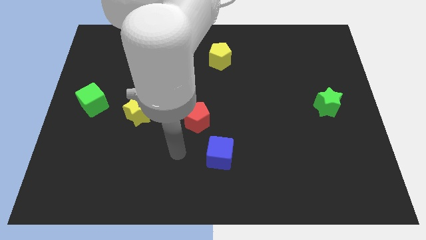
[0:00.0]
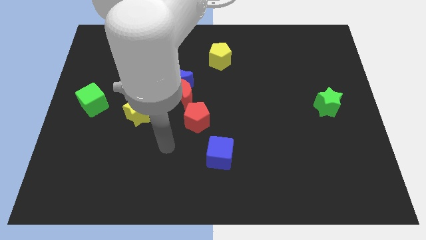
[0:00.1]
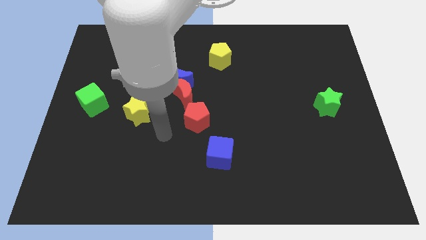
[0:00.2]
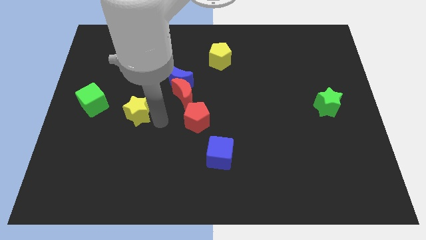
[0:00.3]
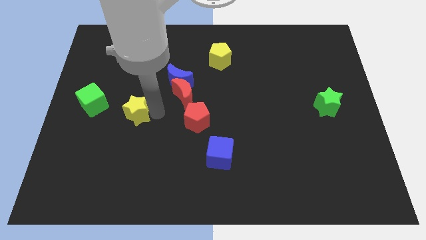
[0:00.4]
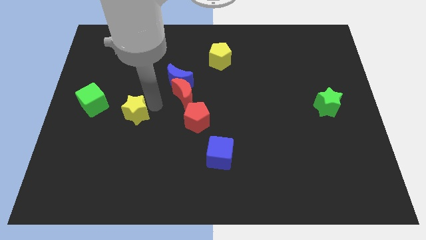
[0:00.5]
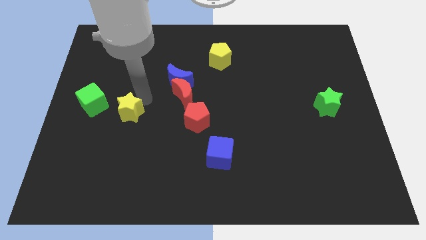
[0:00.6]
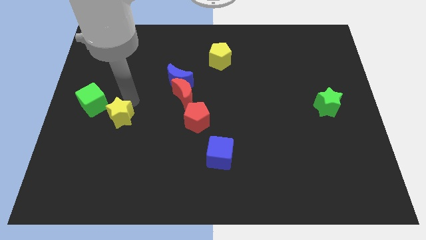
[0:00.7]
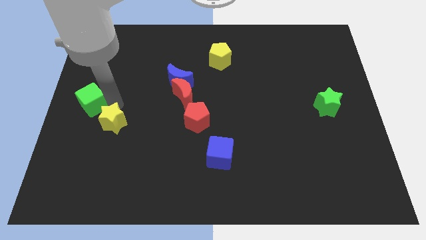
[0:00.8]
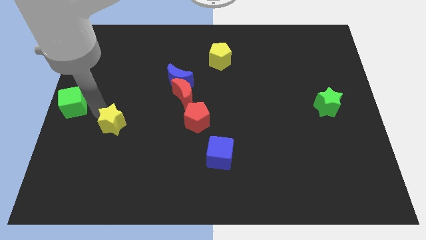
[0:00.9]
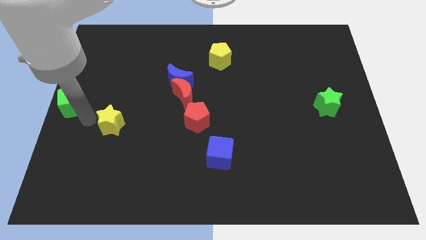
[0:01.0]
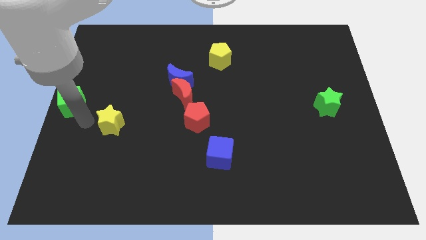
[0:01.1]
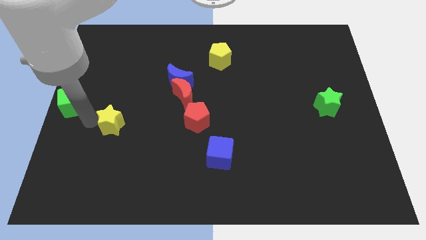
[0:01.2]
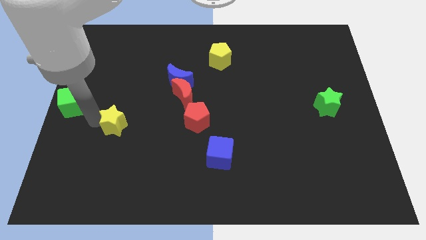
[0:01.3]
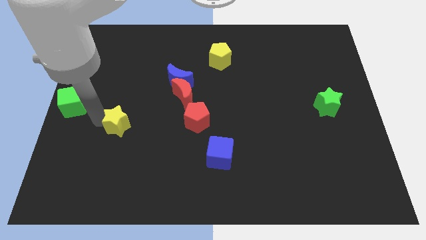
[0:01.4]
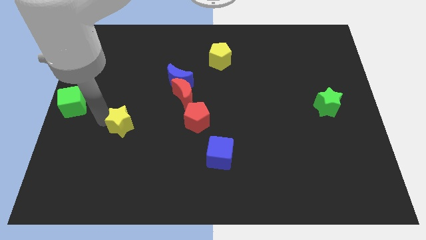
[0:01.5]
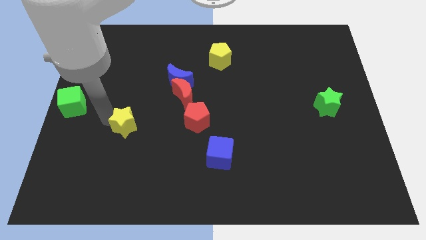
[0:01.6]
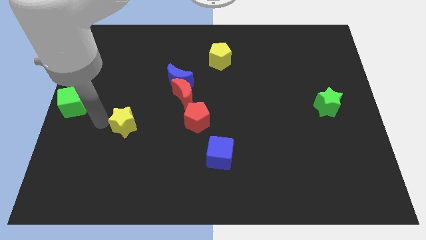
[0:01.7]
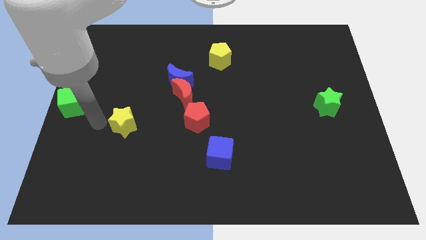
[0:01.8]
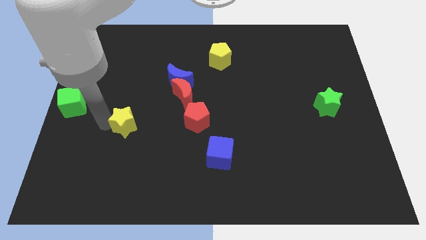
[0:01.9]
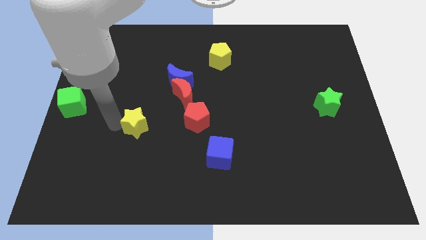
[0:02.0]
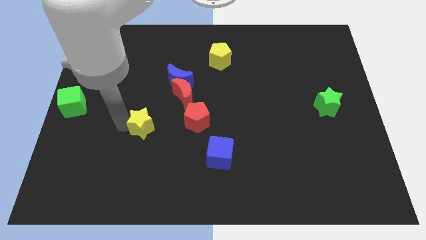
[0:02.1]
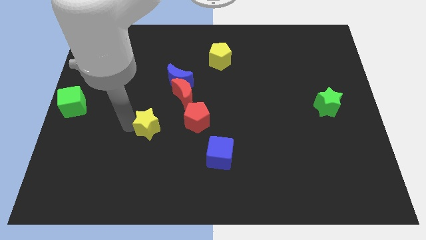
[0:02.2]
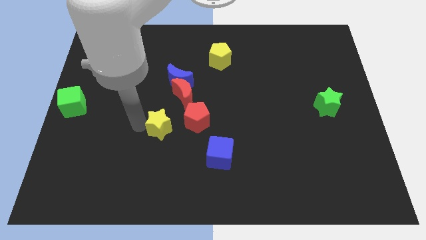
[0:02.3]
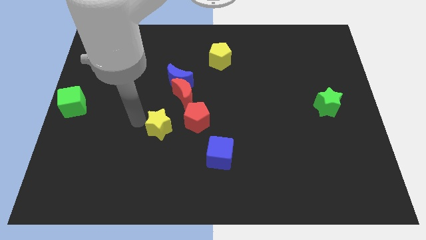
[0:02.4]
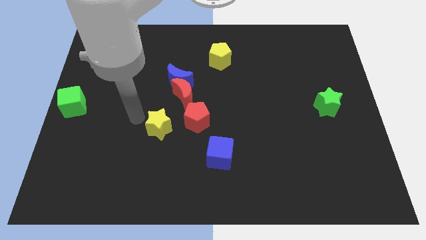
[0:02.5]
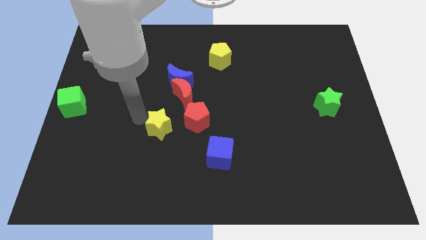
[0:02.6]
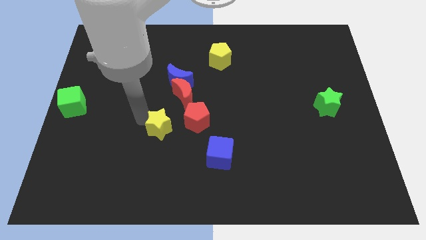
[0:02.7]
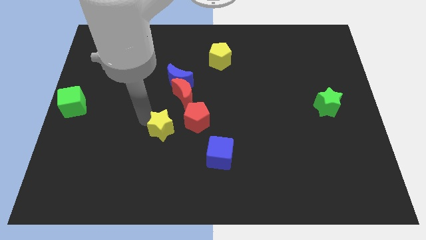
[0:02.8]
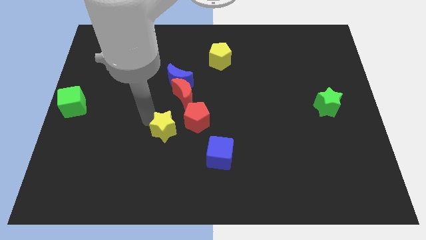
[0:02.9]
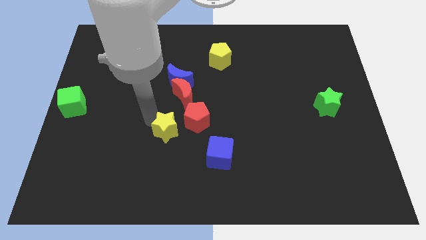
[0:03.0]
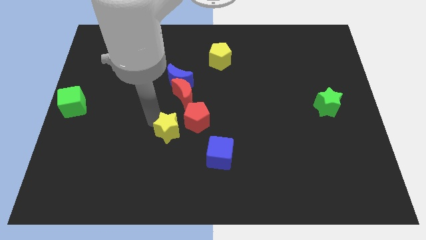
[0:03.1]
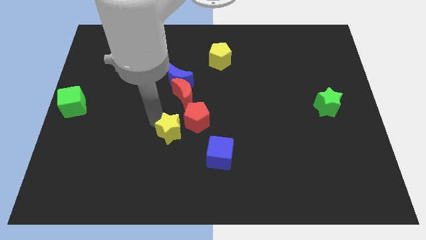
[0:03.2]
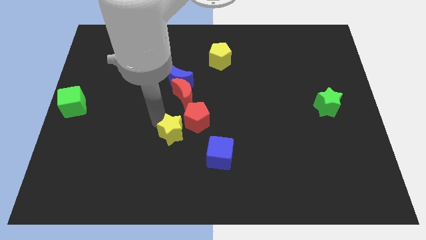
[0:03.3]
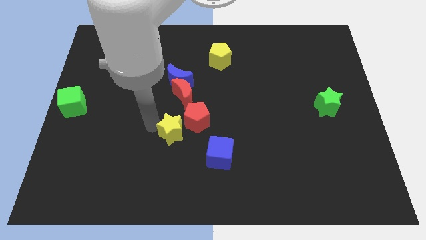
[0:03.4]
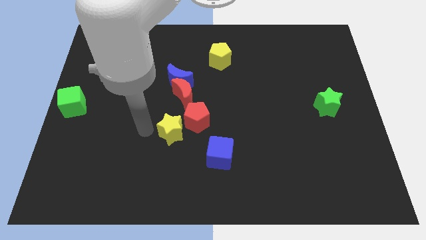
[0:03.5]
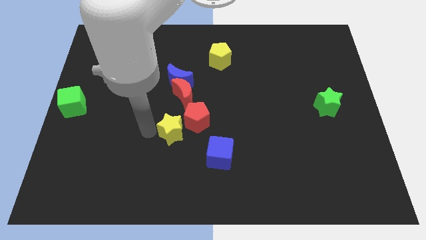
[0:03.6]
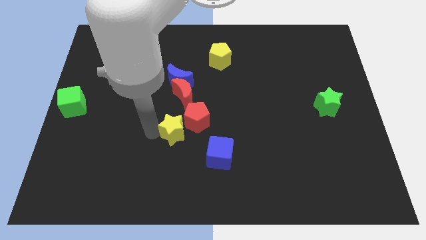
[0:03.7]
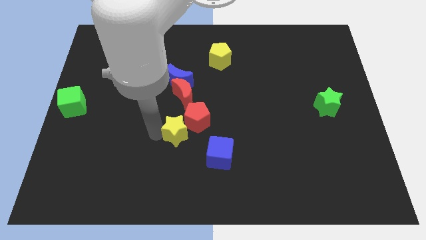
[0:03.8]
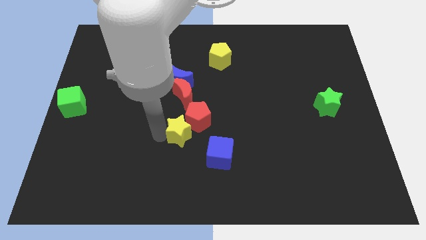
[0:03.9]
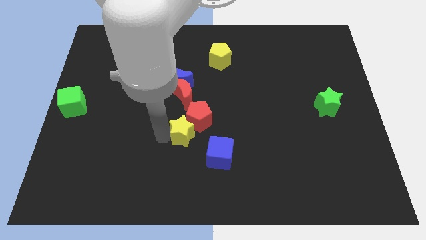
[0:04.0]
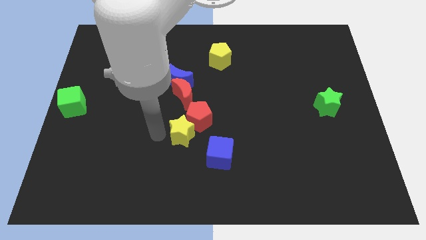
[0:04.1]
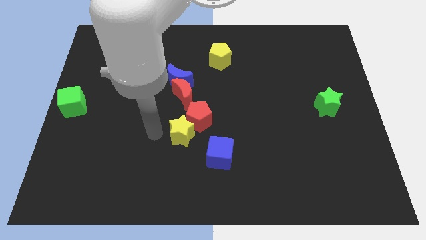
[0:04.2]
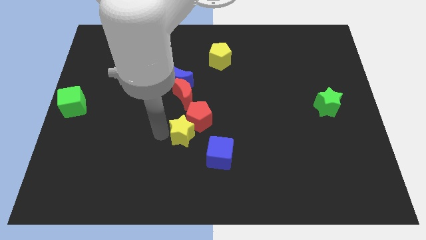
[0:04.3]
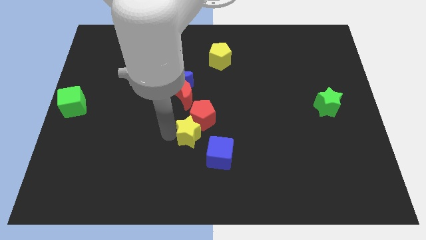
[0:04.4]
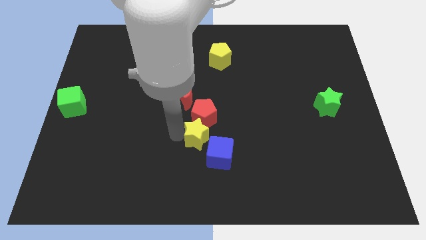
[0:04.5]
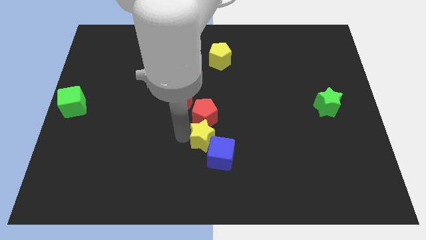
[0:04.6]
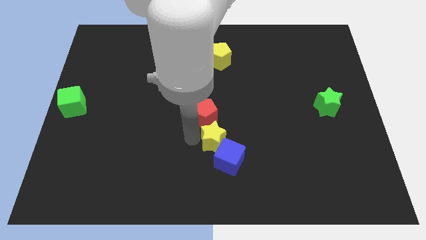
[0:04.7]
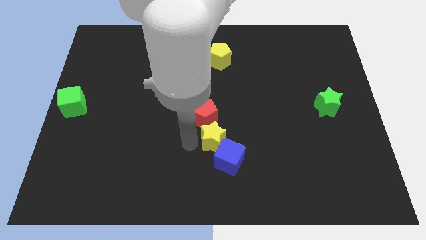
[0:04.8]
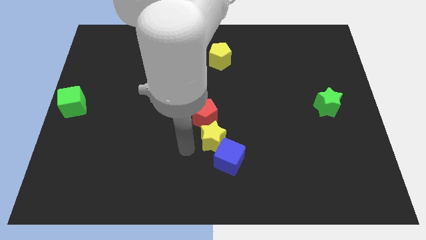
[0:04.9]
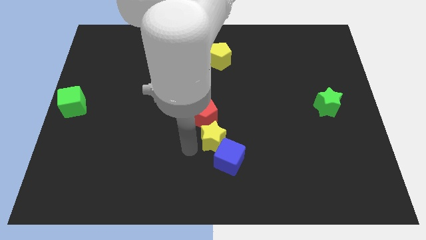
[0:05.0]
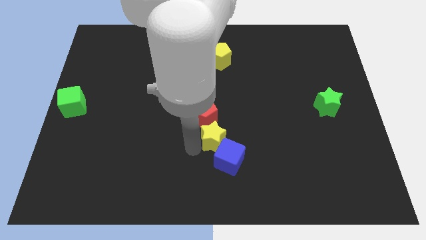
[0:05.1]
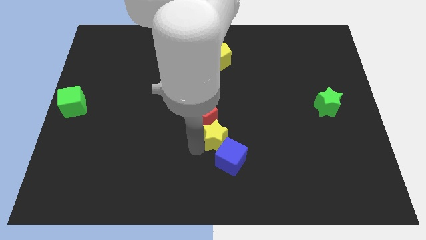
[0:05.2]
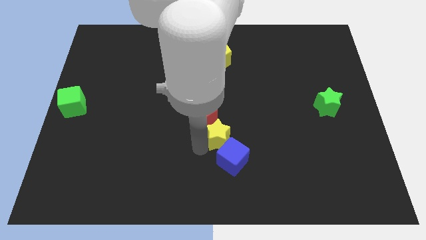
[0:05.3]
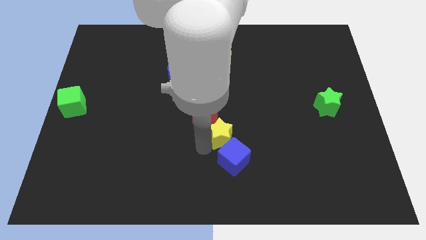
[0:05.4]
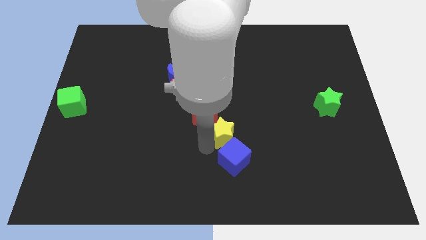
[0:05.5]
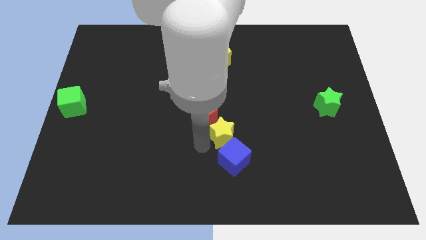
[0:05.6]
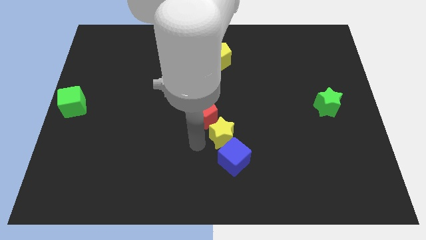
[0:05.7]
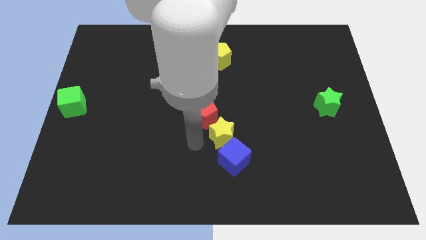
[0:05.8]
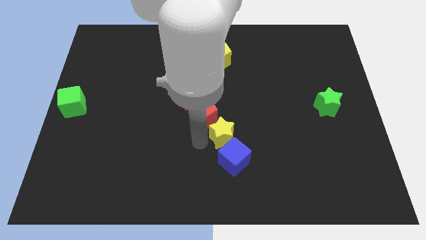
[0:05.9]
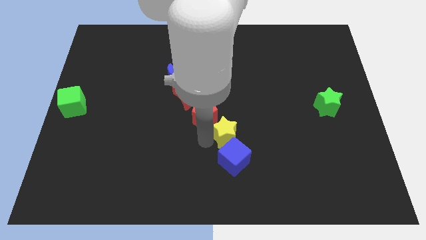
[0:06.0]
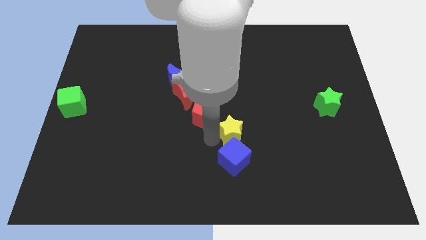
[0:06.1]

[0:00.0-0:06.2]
move the yellow star right of the red pentagon

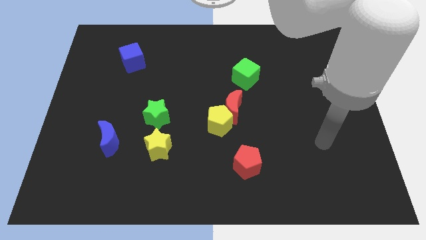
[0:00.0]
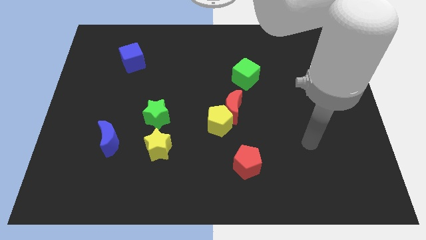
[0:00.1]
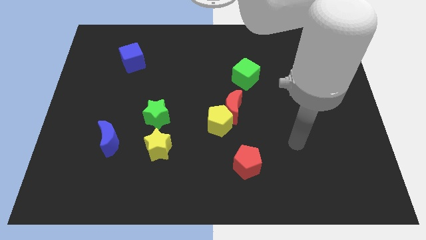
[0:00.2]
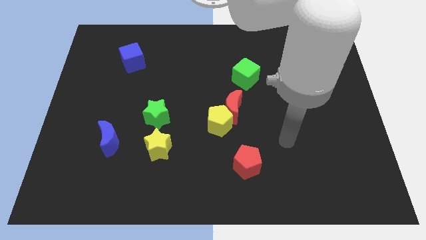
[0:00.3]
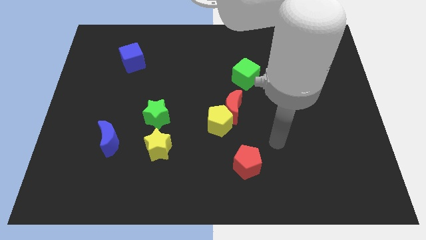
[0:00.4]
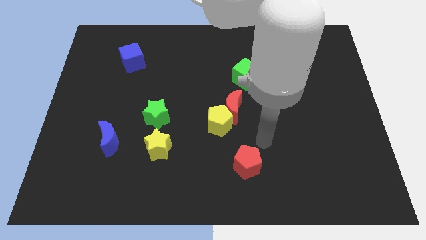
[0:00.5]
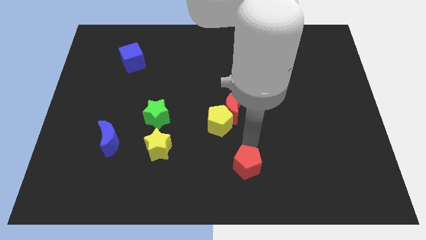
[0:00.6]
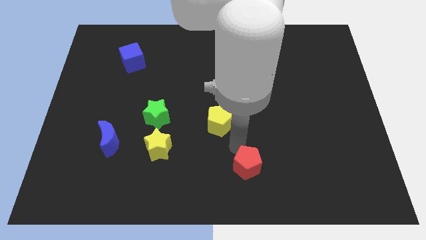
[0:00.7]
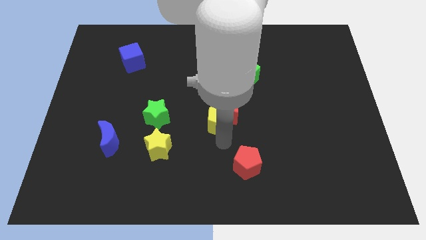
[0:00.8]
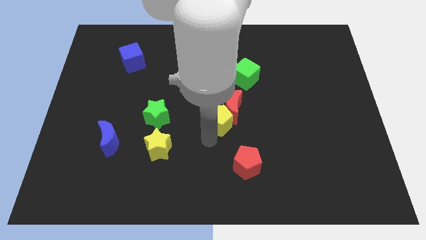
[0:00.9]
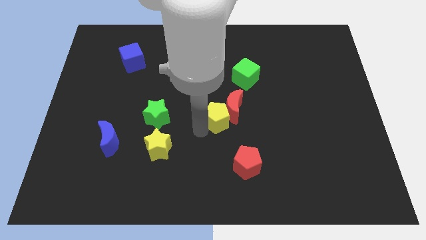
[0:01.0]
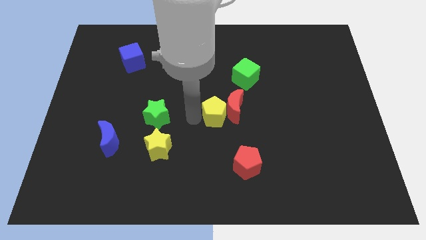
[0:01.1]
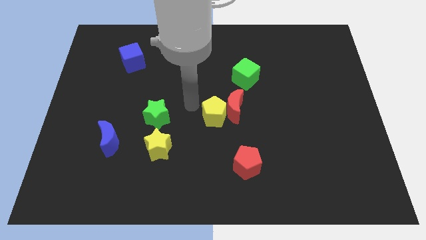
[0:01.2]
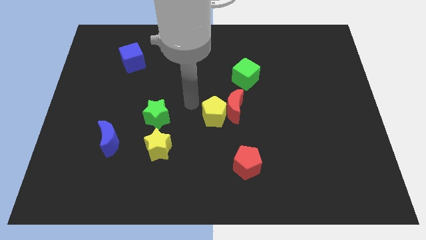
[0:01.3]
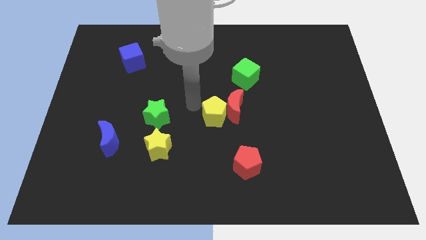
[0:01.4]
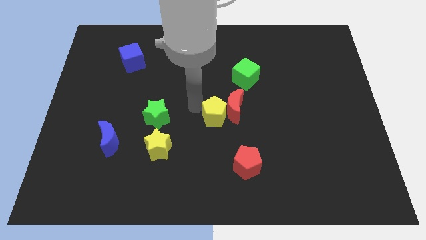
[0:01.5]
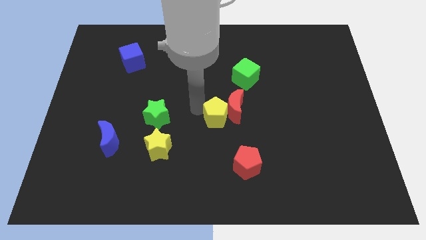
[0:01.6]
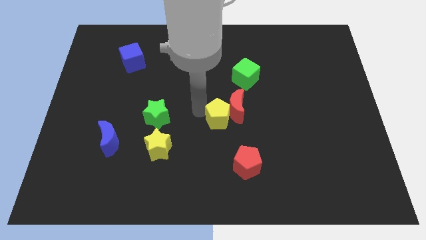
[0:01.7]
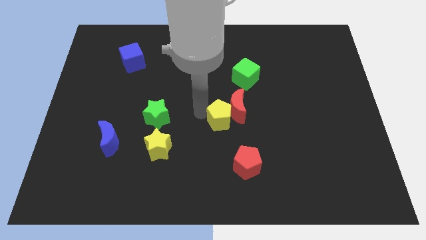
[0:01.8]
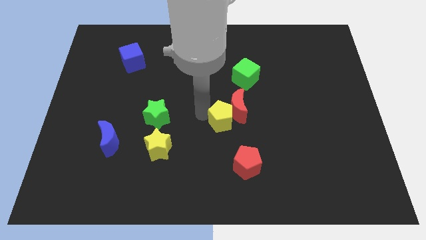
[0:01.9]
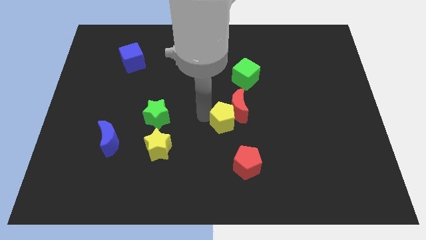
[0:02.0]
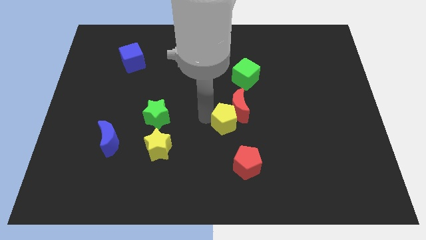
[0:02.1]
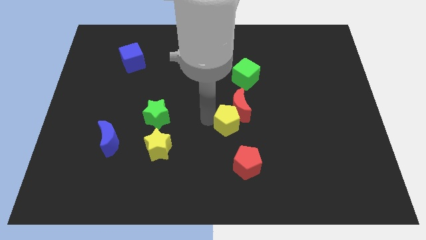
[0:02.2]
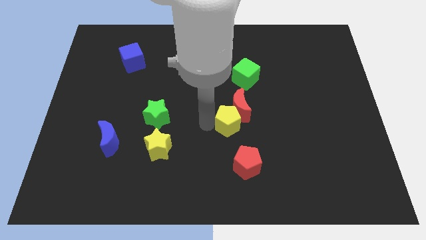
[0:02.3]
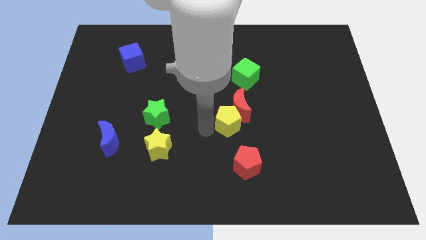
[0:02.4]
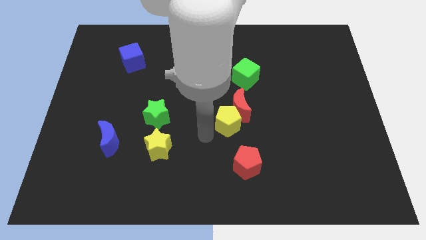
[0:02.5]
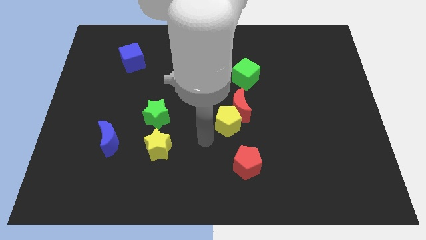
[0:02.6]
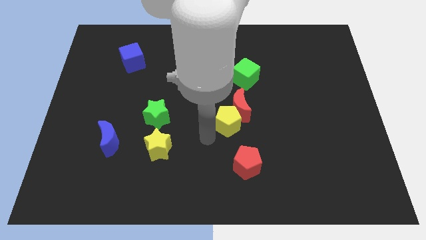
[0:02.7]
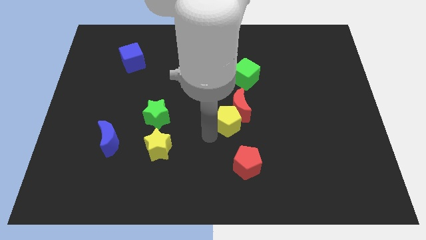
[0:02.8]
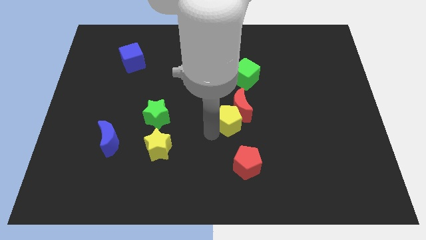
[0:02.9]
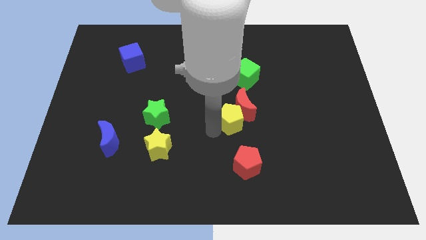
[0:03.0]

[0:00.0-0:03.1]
push the yellow pentagon to the bottom side of the green cube
